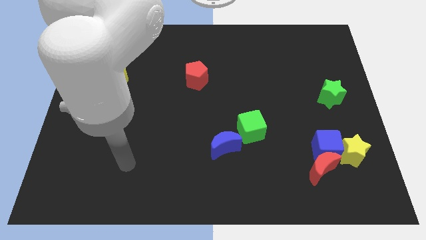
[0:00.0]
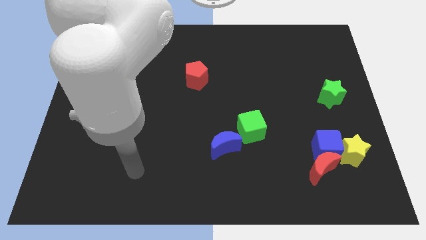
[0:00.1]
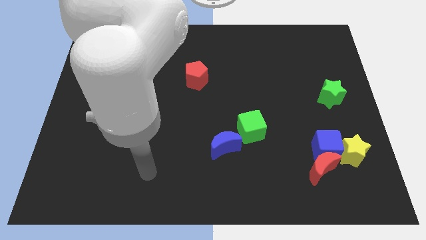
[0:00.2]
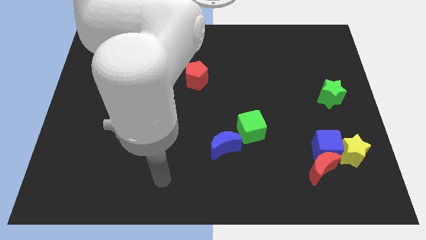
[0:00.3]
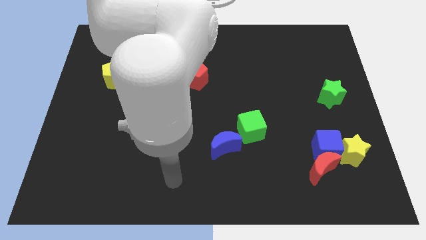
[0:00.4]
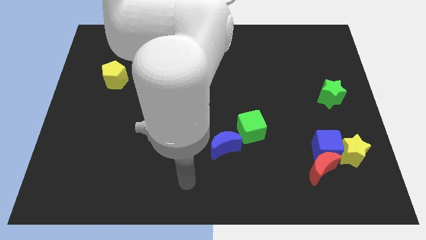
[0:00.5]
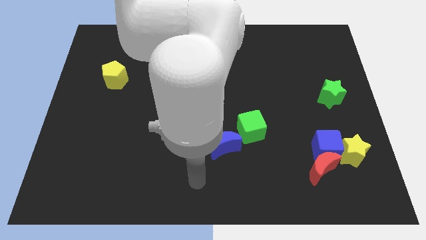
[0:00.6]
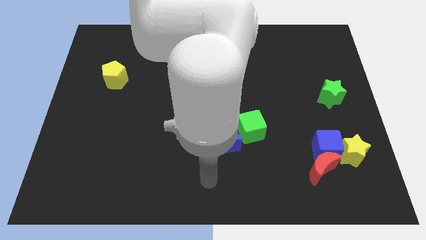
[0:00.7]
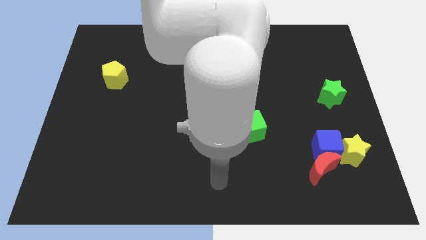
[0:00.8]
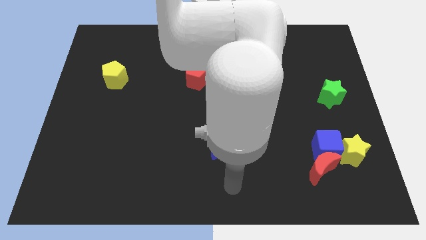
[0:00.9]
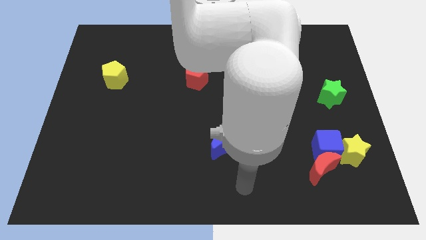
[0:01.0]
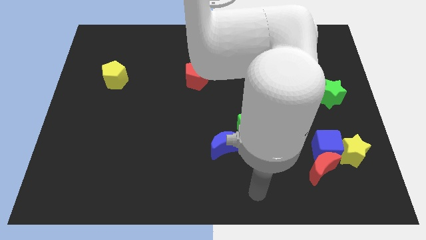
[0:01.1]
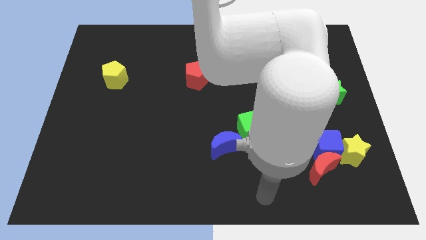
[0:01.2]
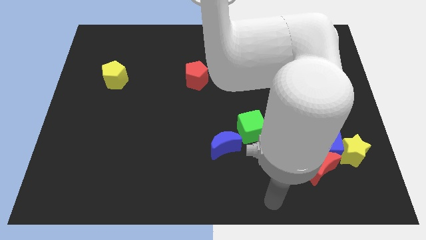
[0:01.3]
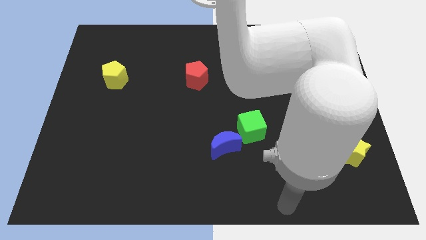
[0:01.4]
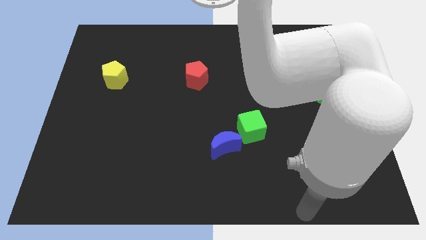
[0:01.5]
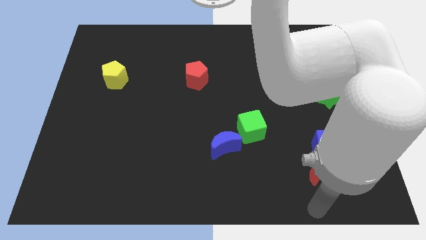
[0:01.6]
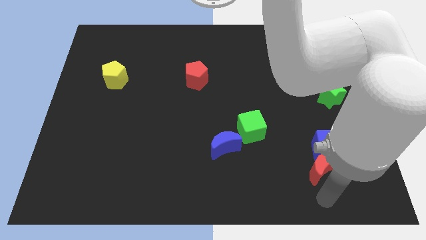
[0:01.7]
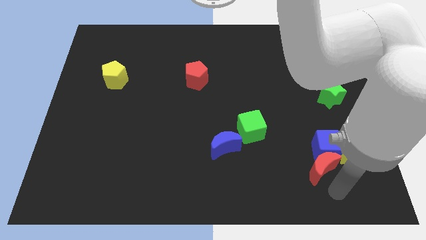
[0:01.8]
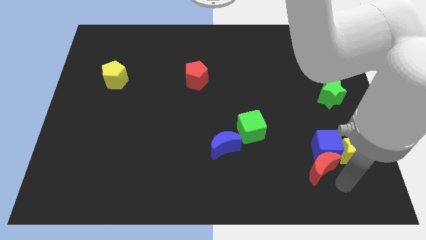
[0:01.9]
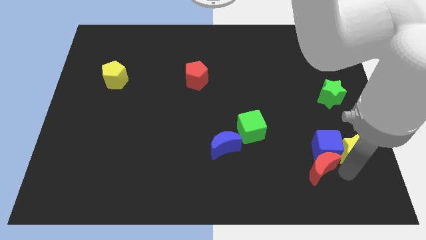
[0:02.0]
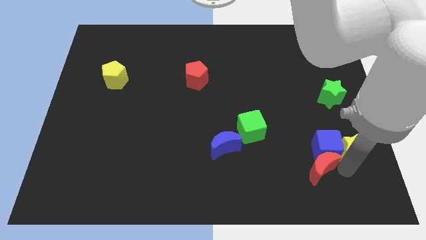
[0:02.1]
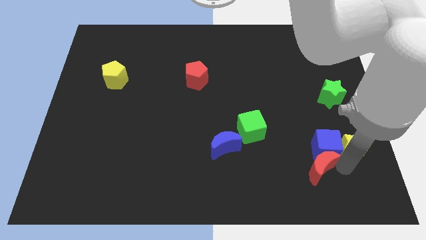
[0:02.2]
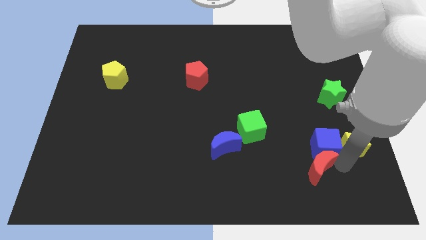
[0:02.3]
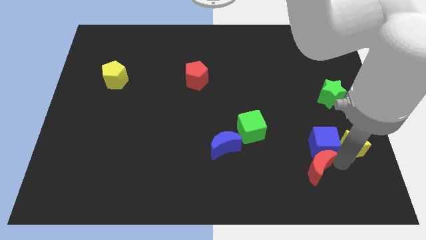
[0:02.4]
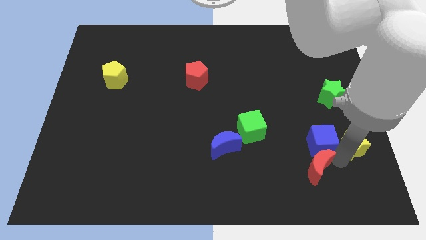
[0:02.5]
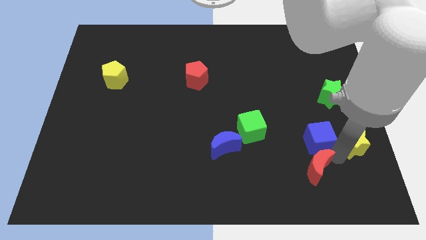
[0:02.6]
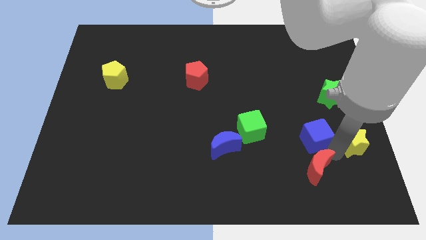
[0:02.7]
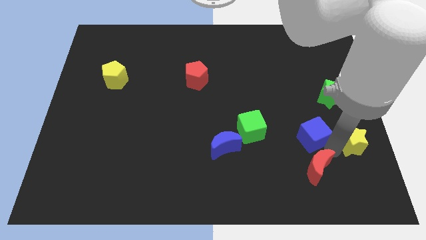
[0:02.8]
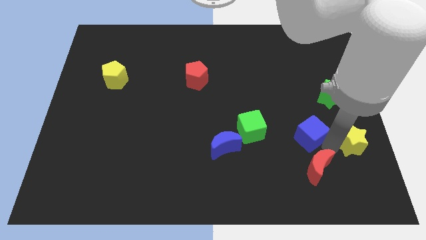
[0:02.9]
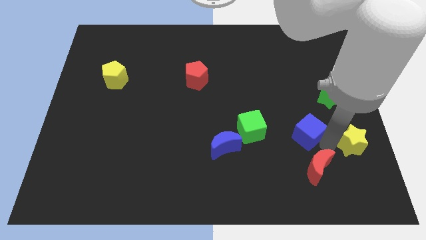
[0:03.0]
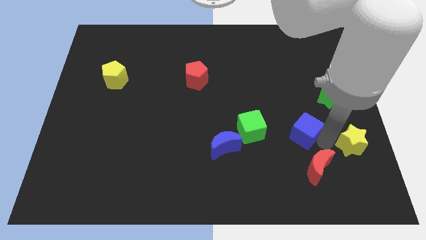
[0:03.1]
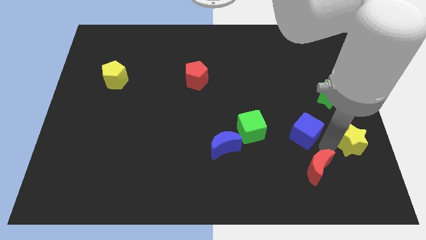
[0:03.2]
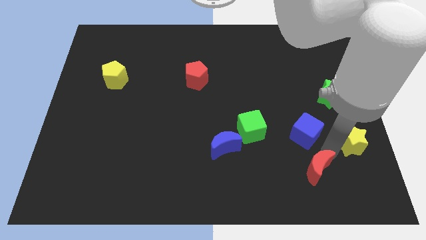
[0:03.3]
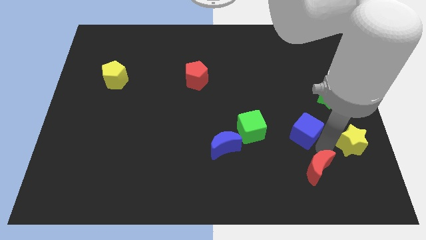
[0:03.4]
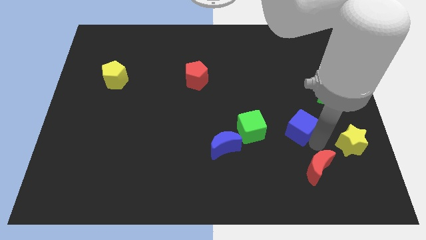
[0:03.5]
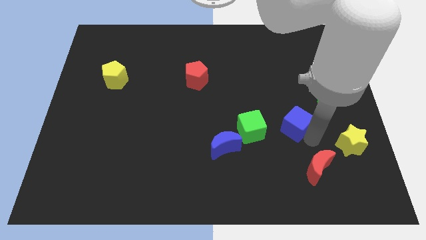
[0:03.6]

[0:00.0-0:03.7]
pull the blue cube apart from the red moon and yellow star

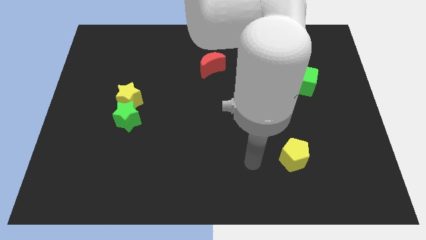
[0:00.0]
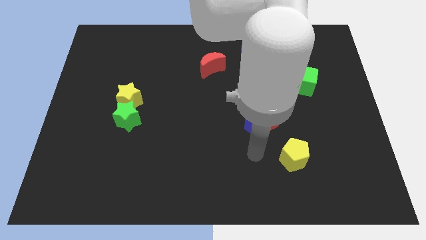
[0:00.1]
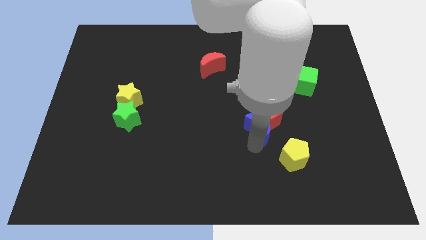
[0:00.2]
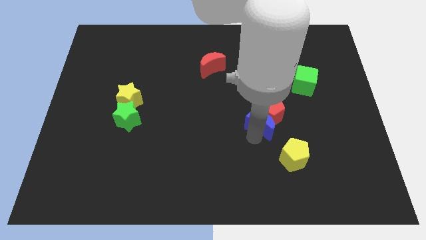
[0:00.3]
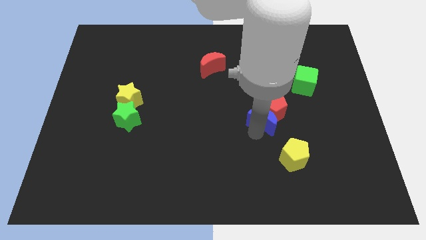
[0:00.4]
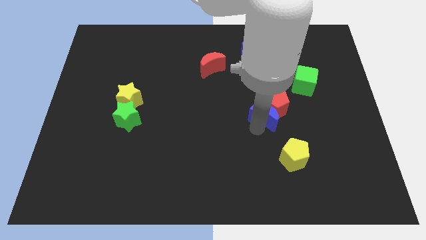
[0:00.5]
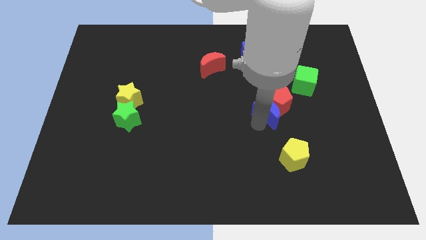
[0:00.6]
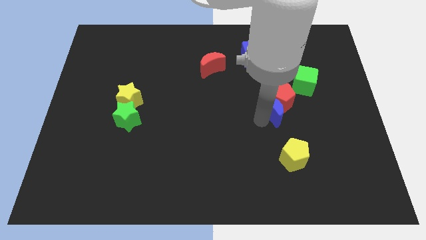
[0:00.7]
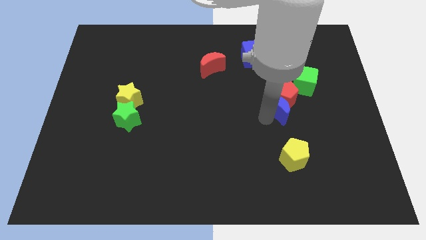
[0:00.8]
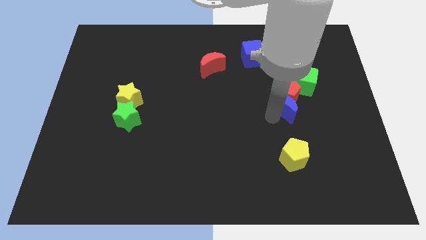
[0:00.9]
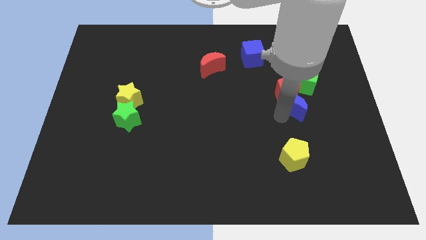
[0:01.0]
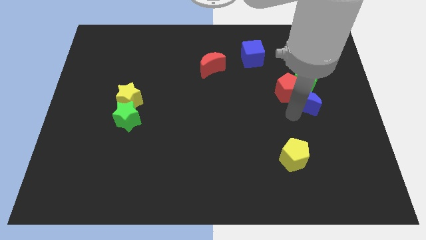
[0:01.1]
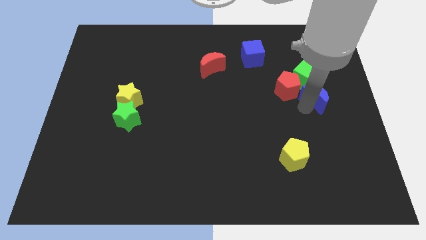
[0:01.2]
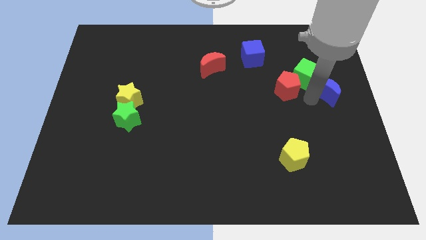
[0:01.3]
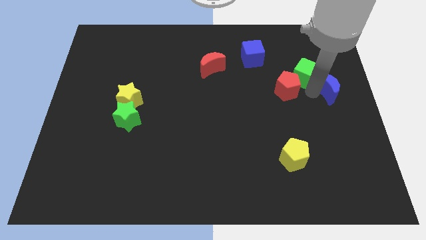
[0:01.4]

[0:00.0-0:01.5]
move the red pentagon away from the blue moon

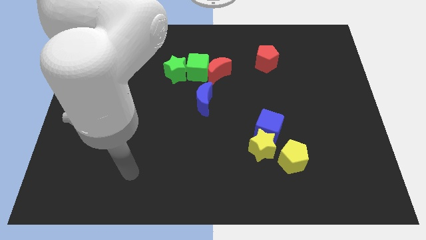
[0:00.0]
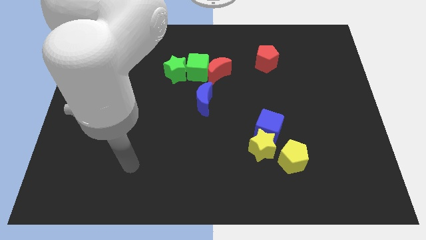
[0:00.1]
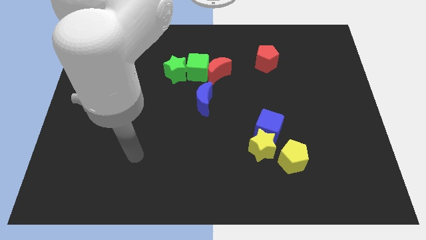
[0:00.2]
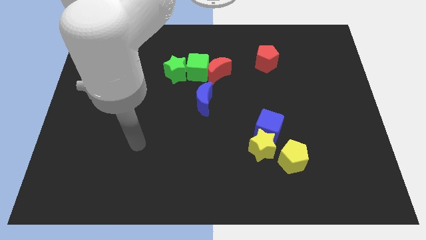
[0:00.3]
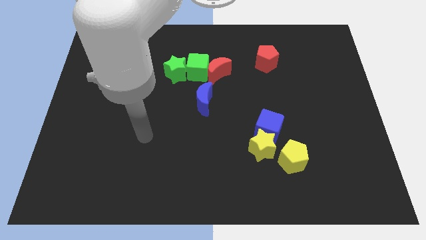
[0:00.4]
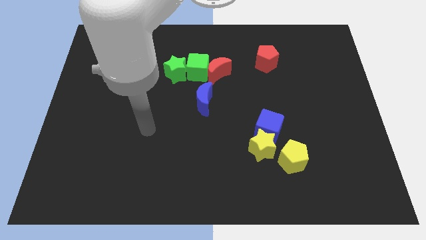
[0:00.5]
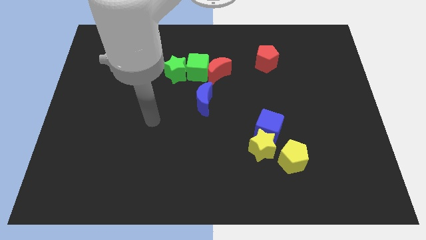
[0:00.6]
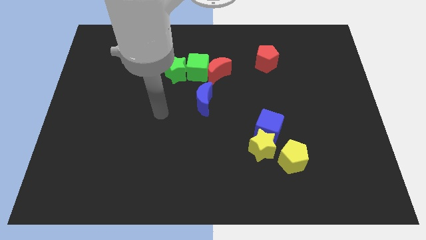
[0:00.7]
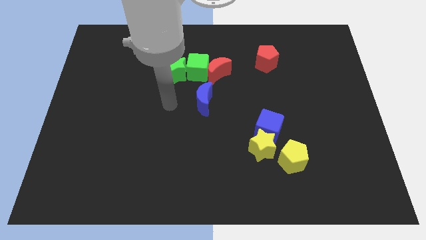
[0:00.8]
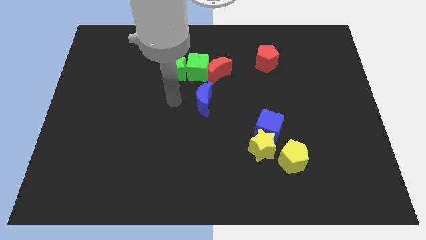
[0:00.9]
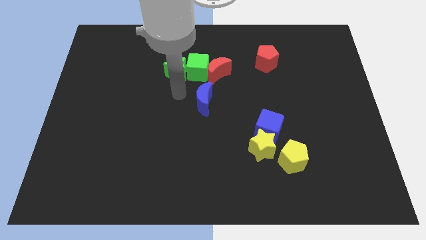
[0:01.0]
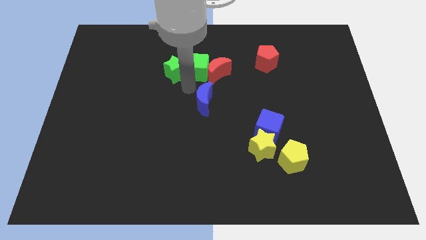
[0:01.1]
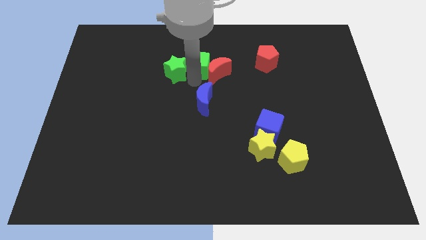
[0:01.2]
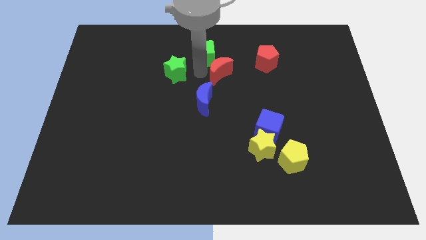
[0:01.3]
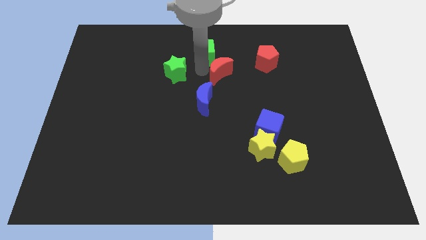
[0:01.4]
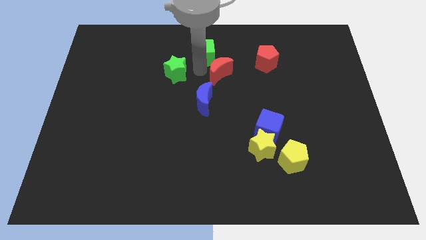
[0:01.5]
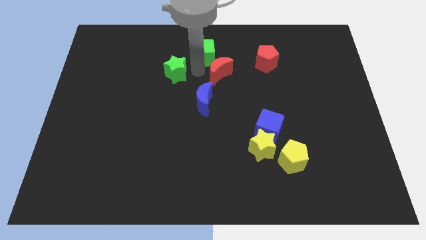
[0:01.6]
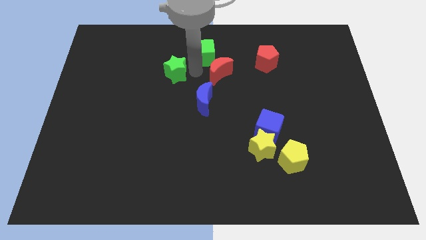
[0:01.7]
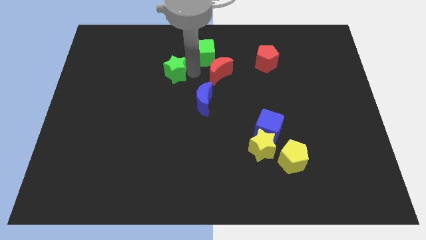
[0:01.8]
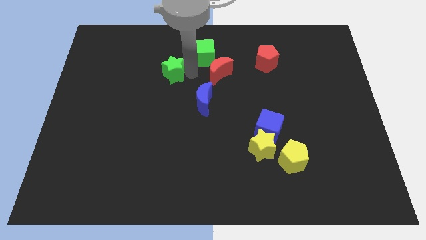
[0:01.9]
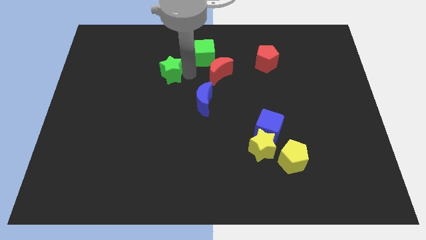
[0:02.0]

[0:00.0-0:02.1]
pull the green star apart from the green cube

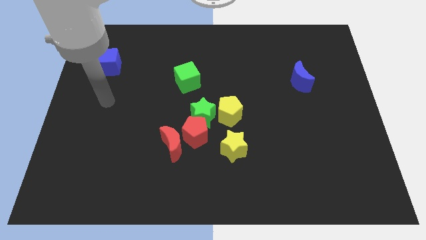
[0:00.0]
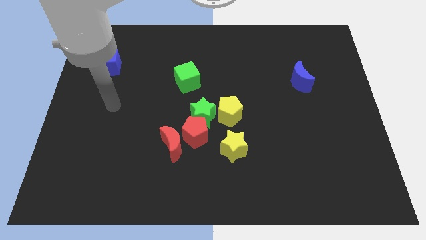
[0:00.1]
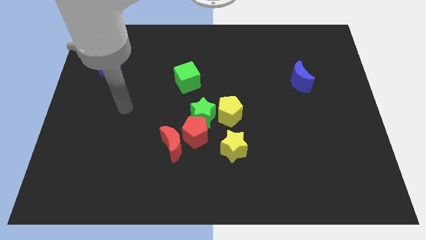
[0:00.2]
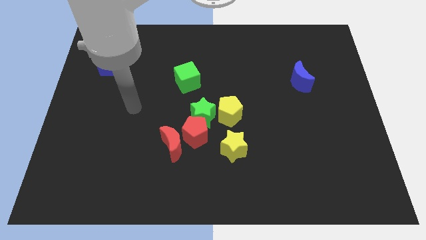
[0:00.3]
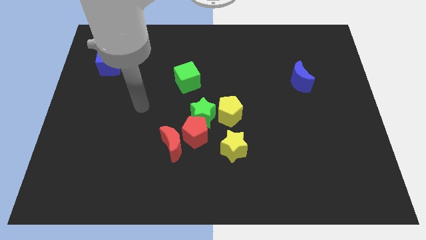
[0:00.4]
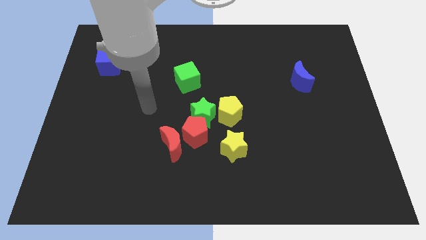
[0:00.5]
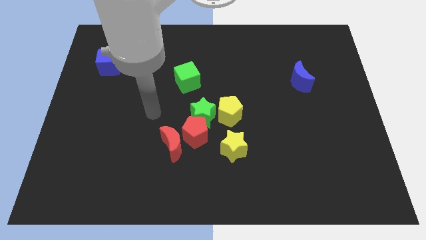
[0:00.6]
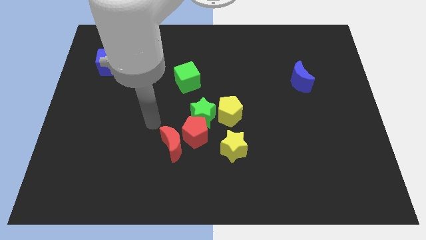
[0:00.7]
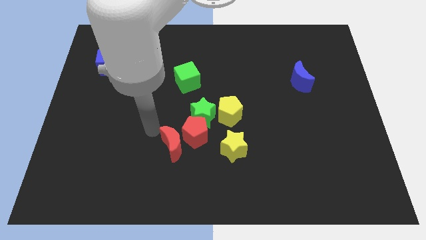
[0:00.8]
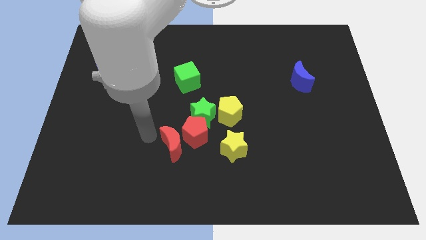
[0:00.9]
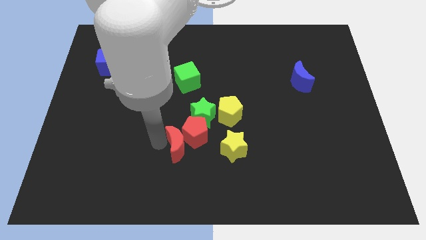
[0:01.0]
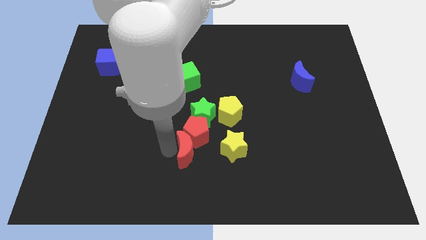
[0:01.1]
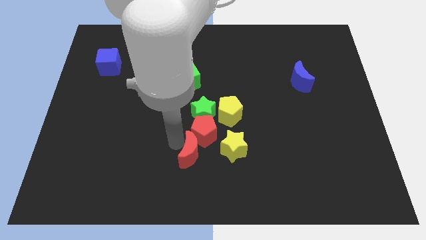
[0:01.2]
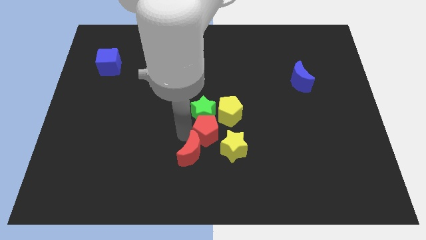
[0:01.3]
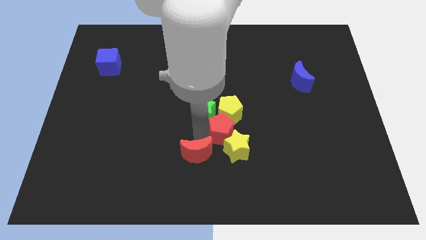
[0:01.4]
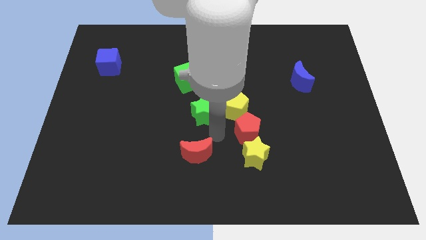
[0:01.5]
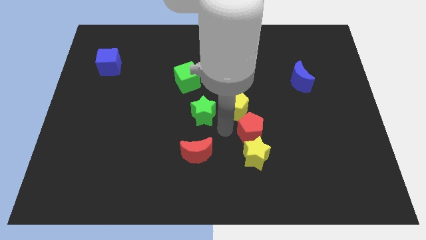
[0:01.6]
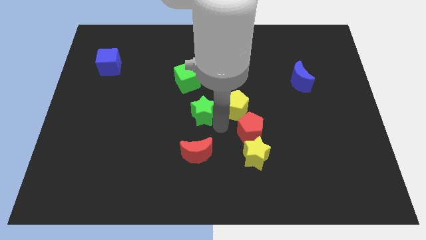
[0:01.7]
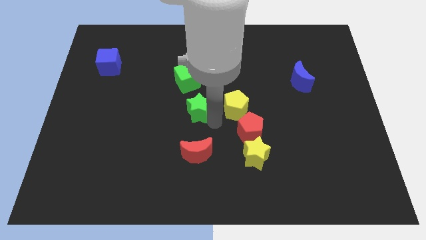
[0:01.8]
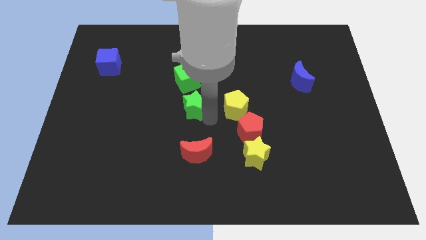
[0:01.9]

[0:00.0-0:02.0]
pull the green star apart from the group of blocks

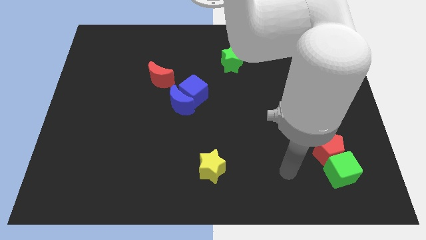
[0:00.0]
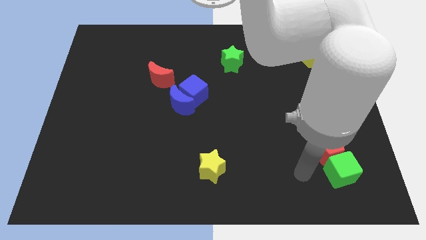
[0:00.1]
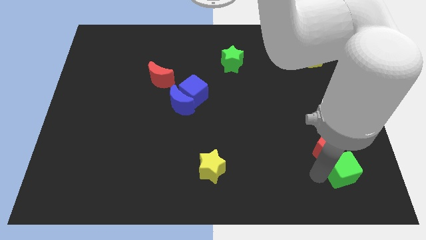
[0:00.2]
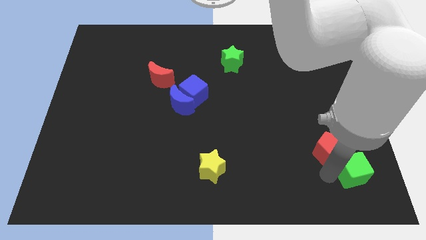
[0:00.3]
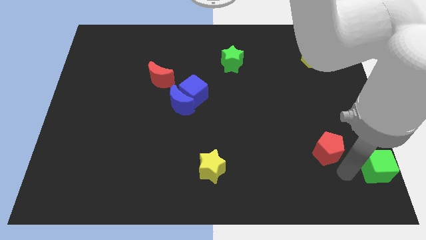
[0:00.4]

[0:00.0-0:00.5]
pull the red pentagon apart from the green cube
